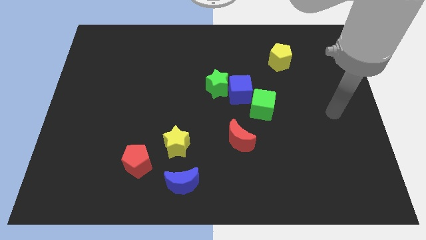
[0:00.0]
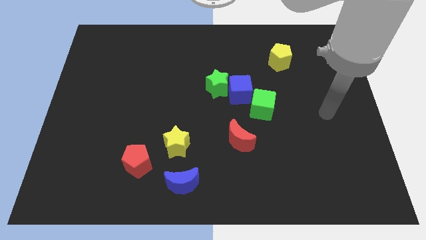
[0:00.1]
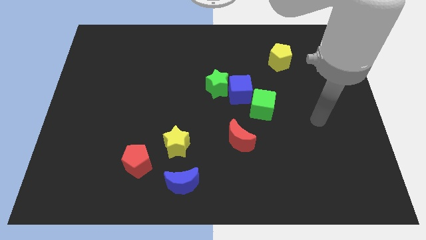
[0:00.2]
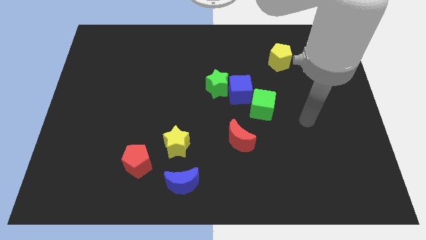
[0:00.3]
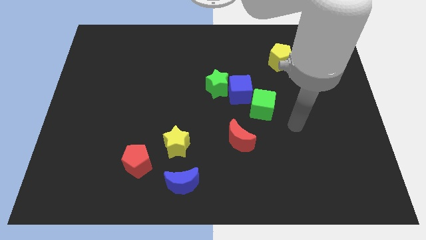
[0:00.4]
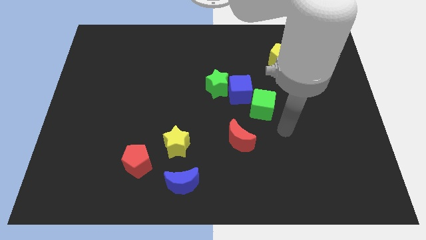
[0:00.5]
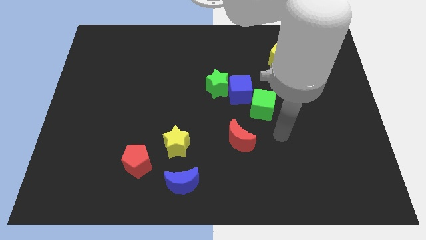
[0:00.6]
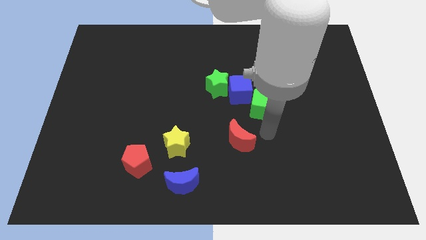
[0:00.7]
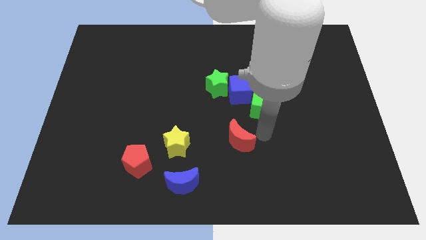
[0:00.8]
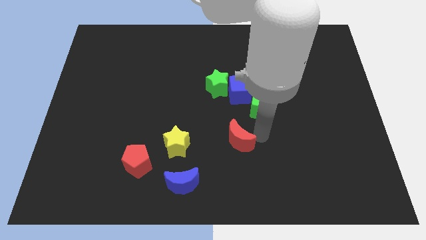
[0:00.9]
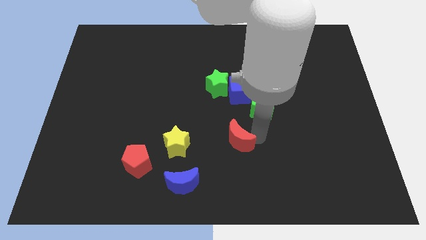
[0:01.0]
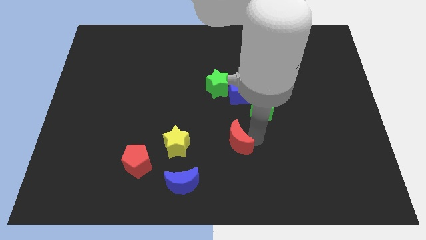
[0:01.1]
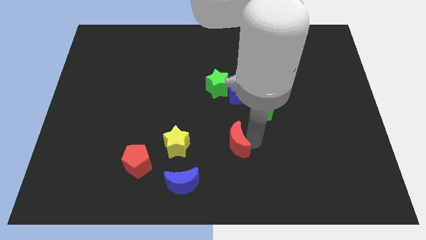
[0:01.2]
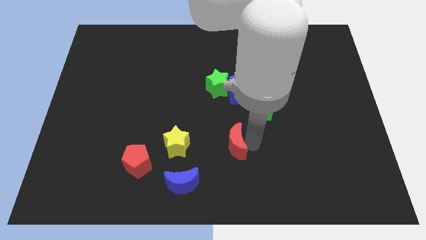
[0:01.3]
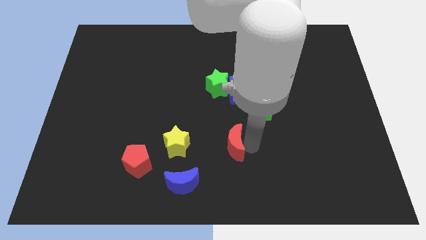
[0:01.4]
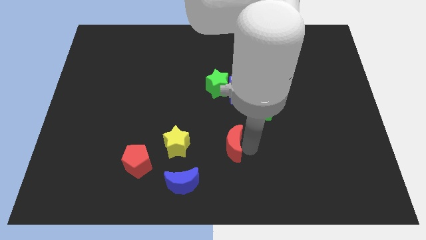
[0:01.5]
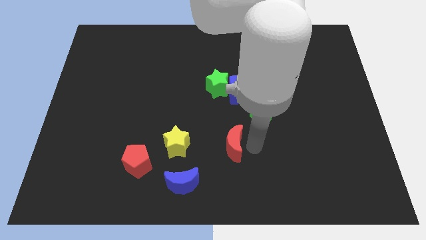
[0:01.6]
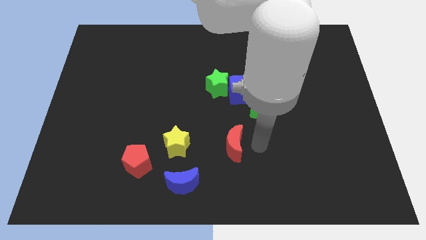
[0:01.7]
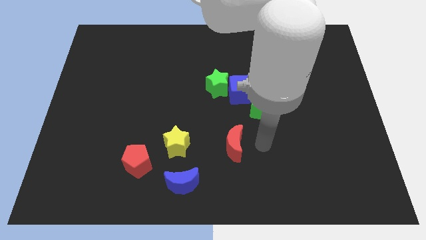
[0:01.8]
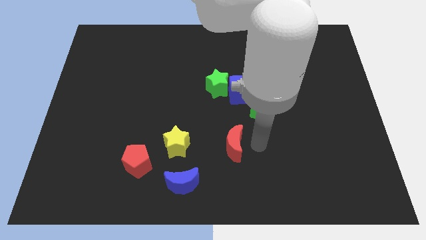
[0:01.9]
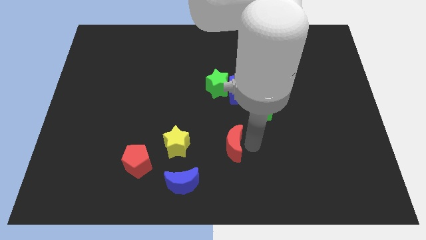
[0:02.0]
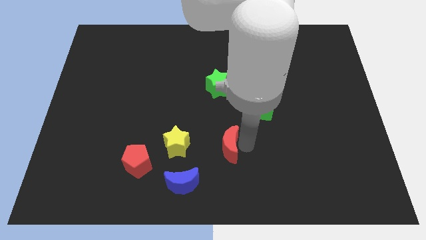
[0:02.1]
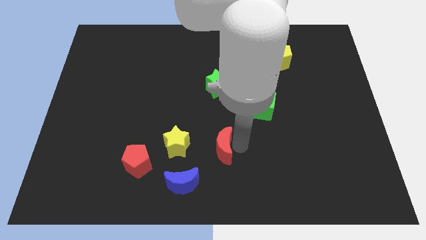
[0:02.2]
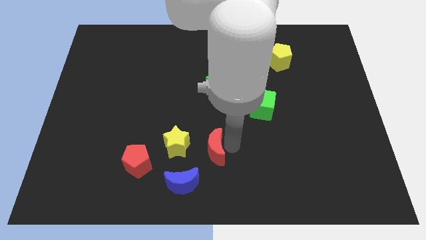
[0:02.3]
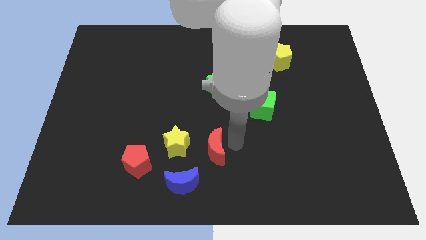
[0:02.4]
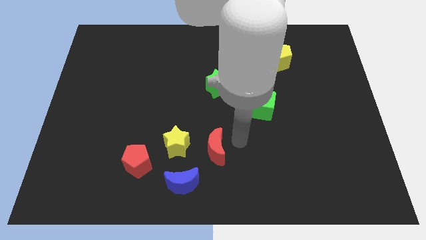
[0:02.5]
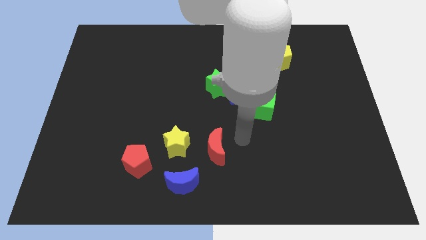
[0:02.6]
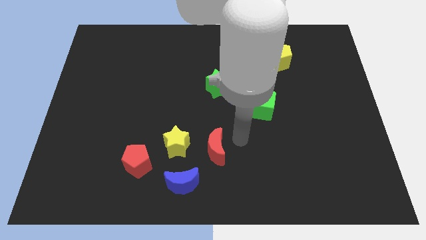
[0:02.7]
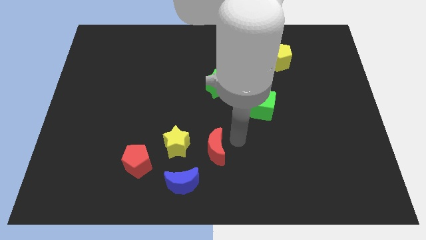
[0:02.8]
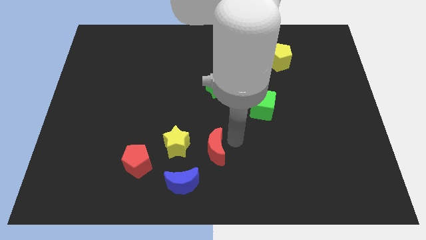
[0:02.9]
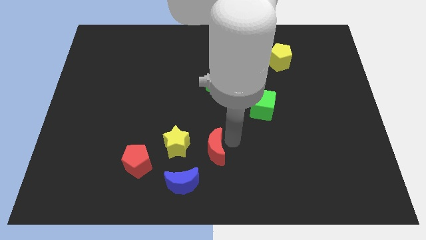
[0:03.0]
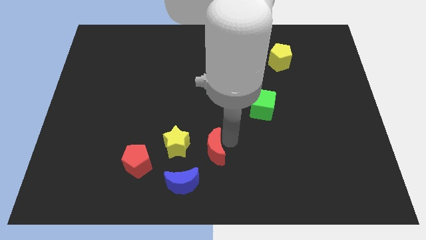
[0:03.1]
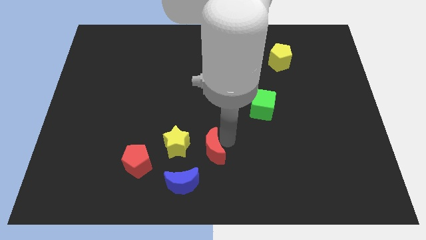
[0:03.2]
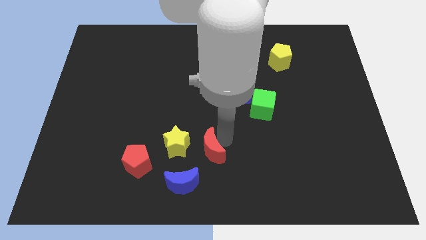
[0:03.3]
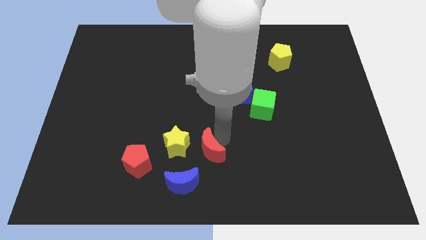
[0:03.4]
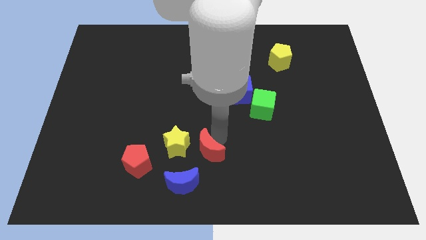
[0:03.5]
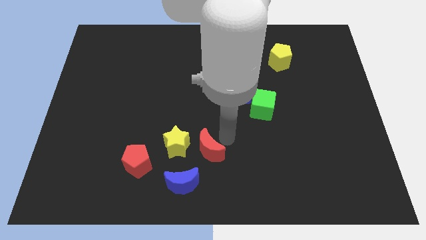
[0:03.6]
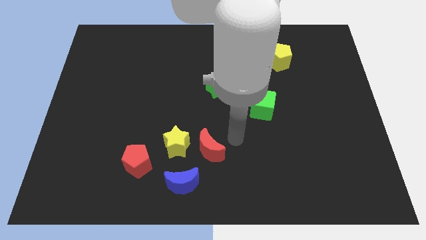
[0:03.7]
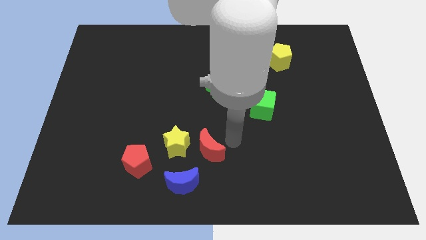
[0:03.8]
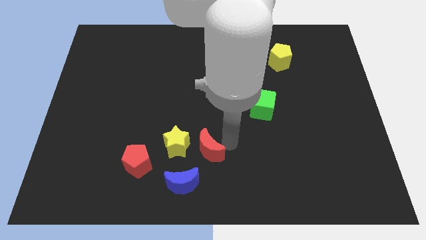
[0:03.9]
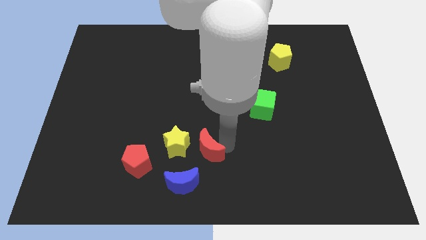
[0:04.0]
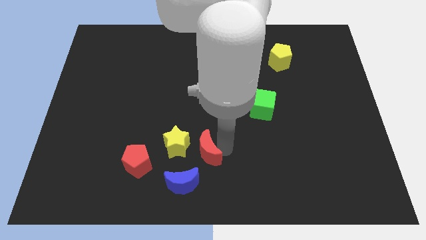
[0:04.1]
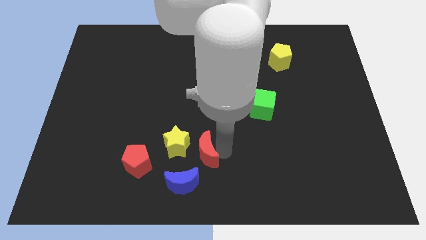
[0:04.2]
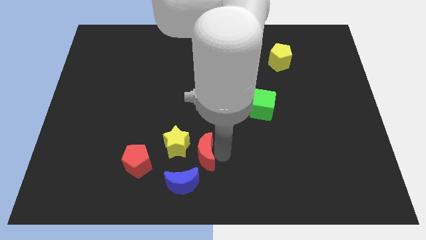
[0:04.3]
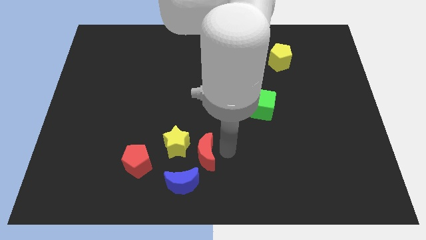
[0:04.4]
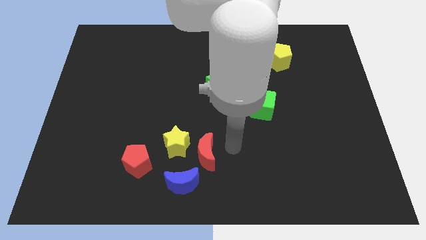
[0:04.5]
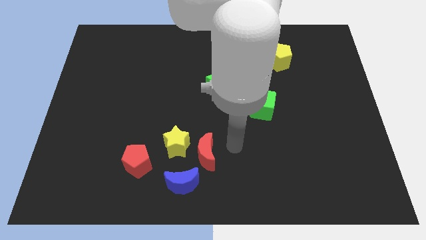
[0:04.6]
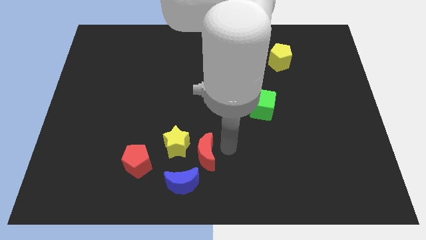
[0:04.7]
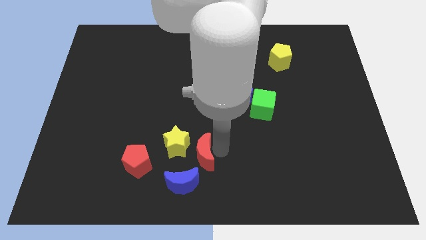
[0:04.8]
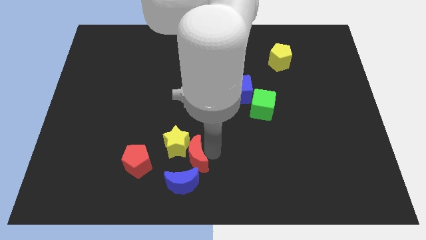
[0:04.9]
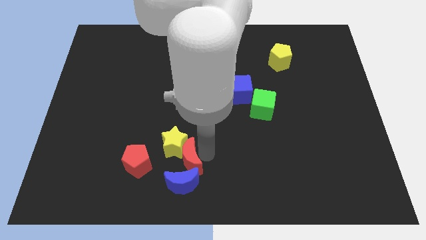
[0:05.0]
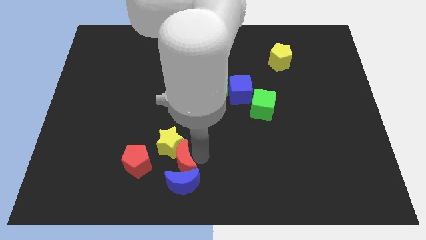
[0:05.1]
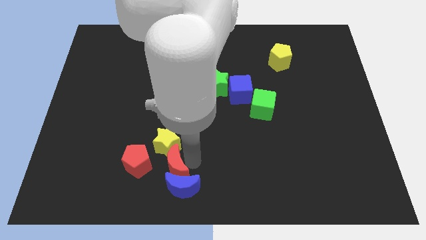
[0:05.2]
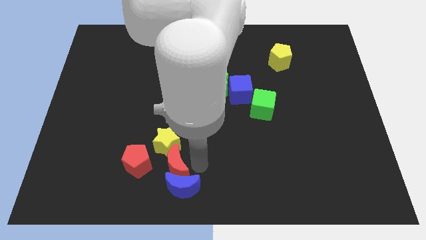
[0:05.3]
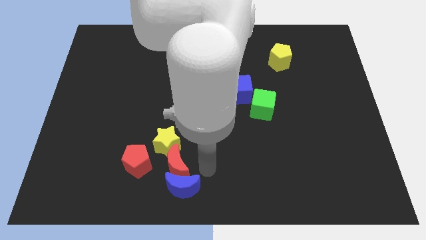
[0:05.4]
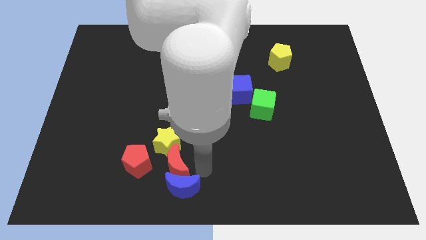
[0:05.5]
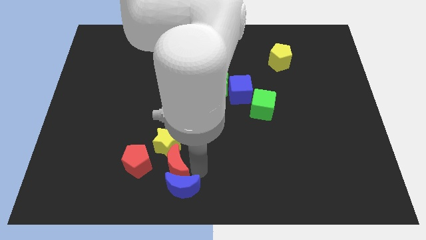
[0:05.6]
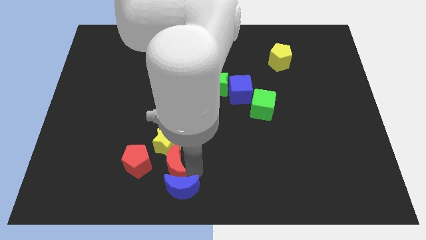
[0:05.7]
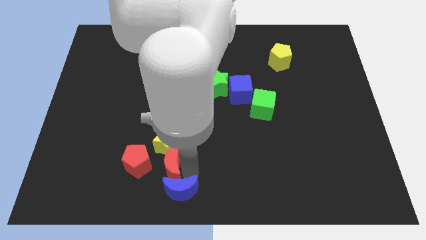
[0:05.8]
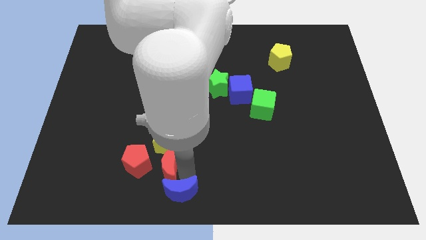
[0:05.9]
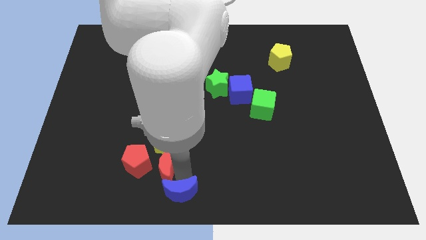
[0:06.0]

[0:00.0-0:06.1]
slide the red moon towards the red pentagon

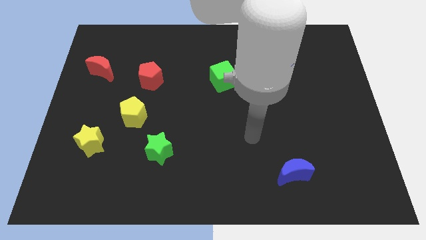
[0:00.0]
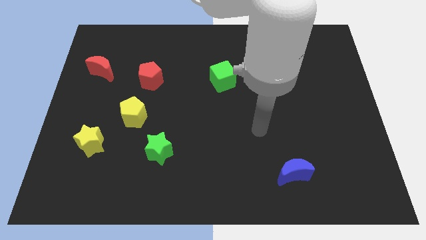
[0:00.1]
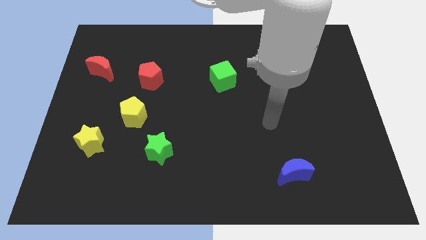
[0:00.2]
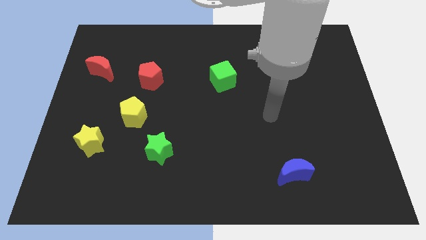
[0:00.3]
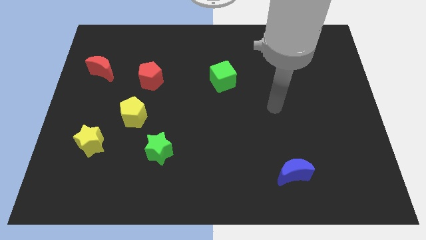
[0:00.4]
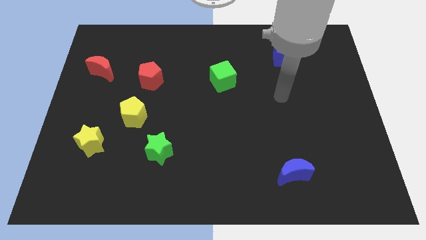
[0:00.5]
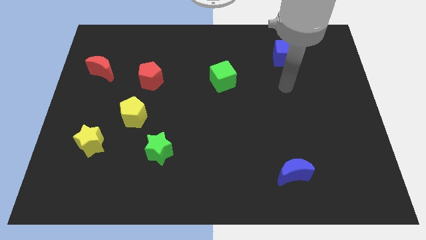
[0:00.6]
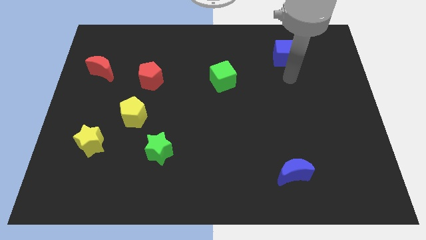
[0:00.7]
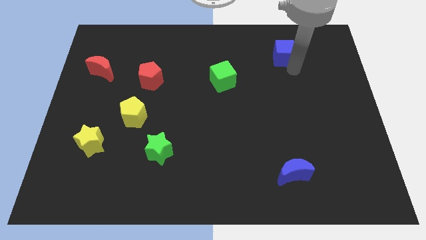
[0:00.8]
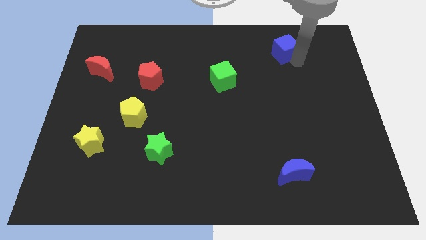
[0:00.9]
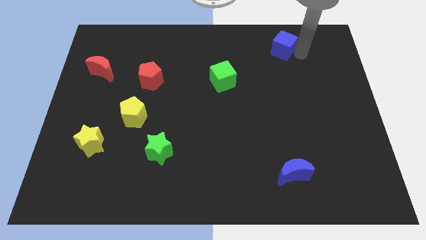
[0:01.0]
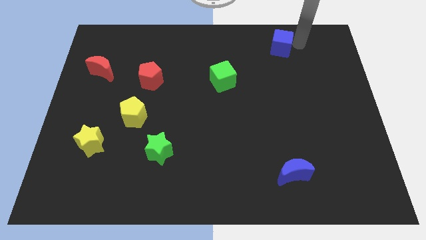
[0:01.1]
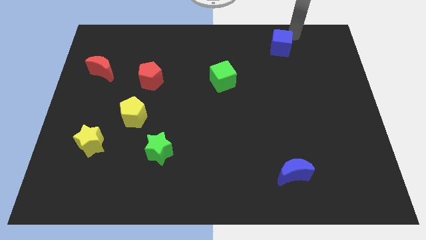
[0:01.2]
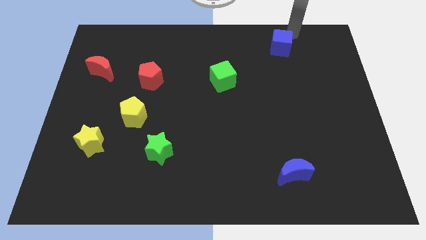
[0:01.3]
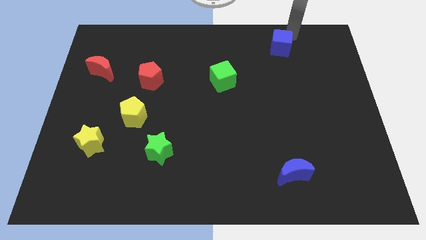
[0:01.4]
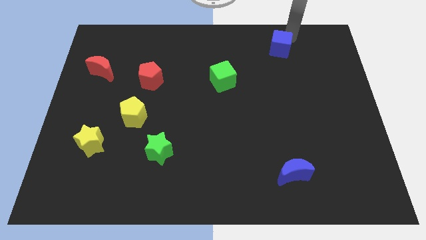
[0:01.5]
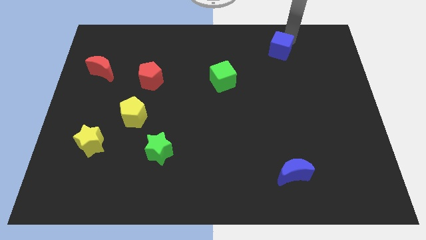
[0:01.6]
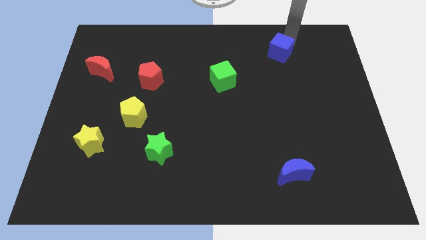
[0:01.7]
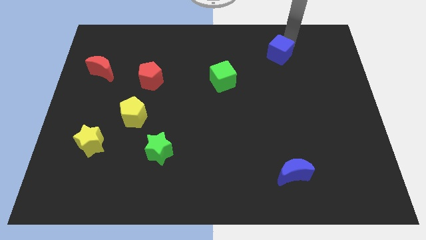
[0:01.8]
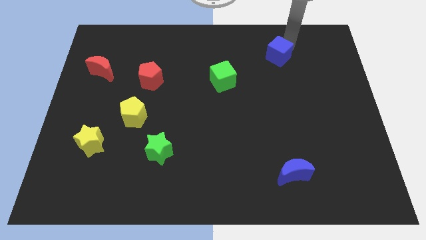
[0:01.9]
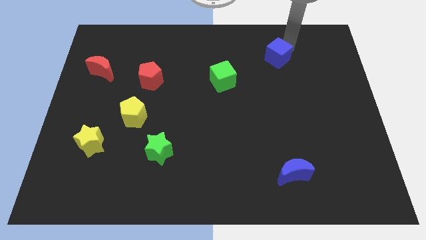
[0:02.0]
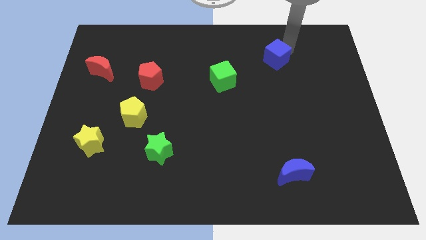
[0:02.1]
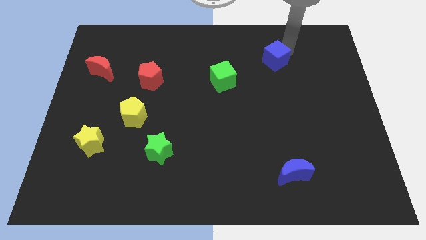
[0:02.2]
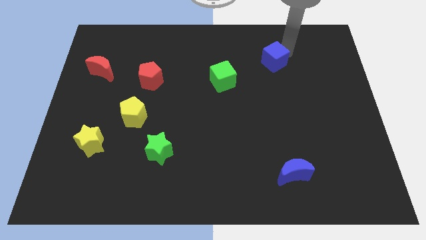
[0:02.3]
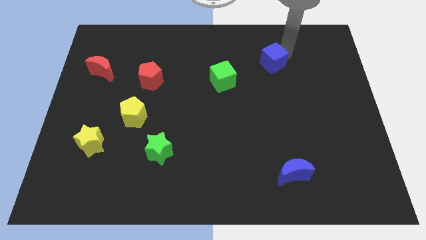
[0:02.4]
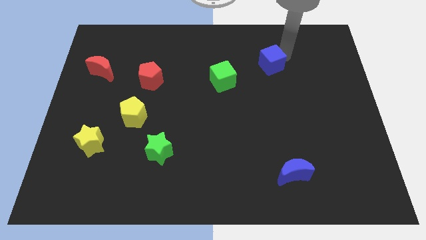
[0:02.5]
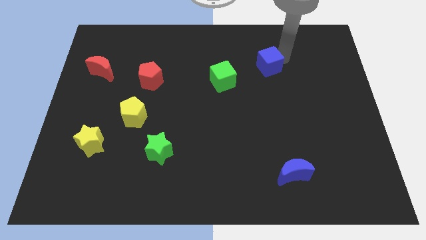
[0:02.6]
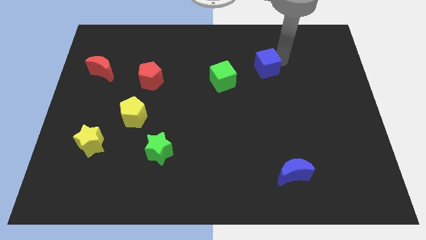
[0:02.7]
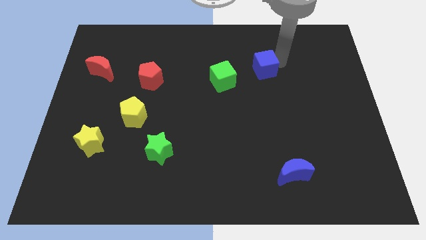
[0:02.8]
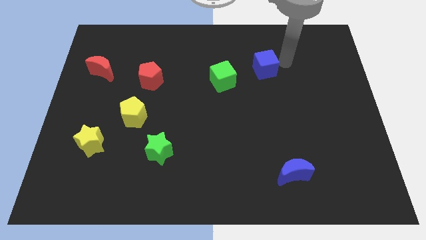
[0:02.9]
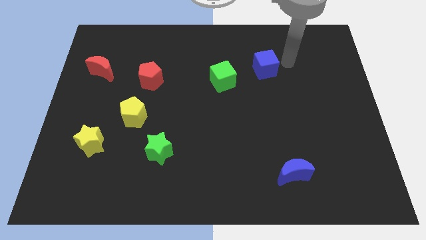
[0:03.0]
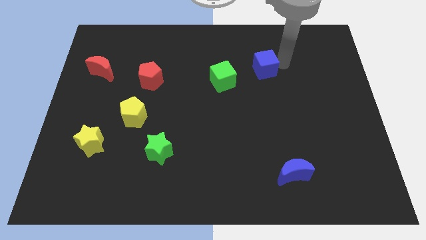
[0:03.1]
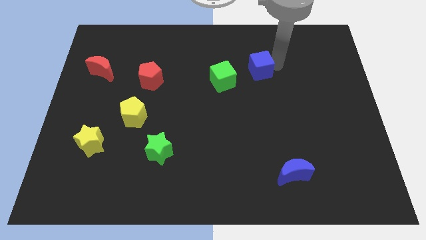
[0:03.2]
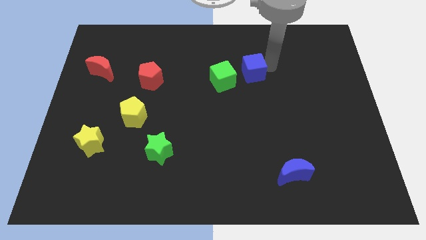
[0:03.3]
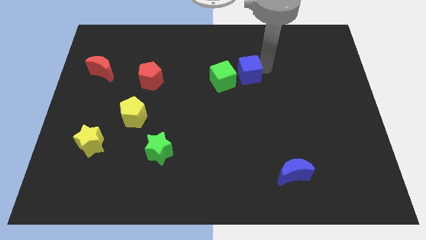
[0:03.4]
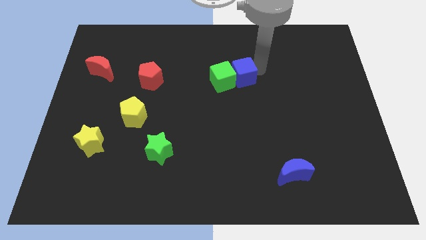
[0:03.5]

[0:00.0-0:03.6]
slide the blue cube next to the green cube
